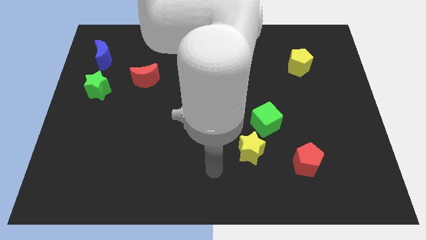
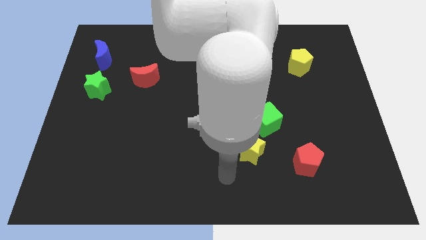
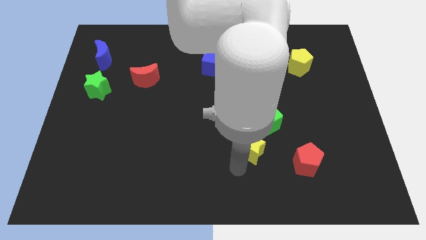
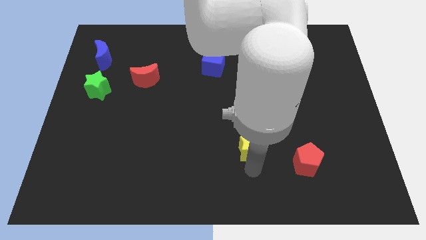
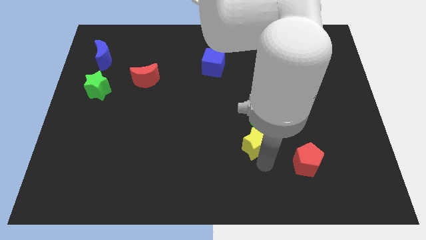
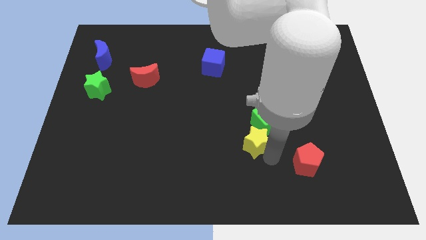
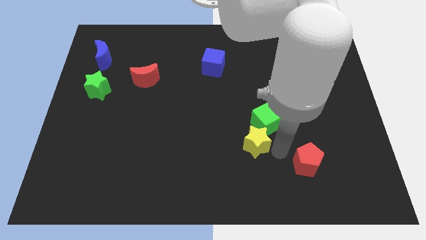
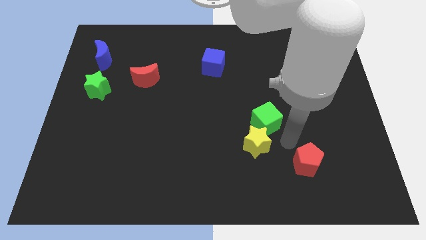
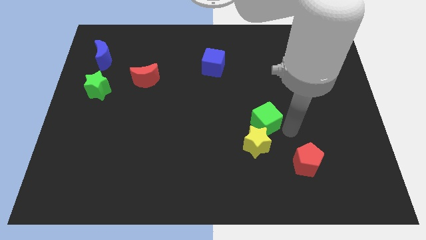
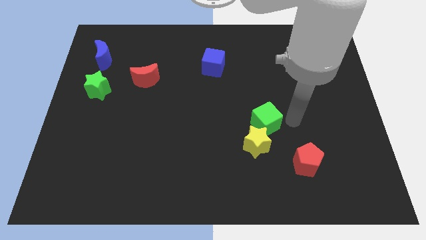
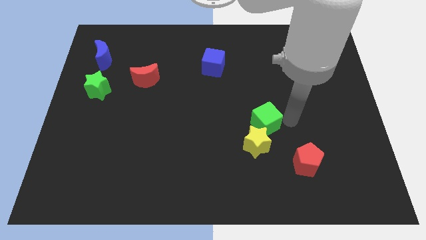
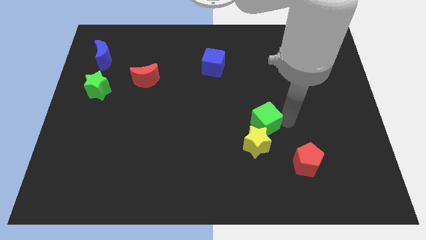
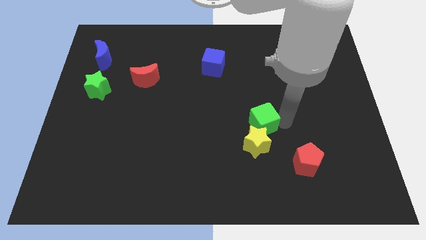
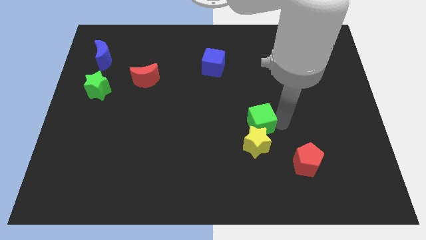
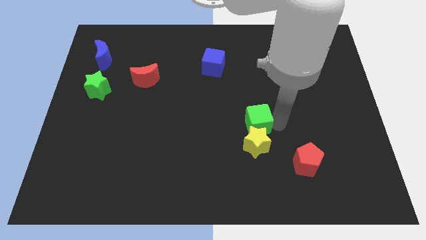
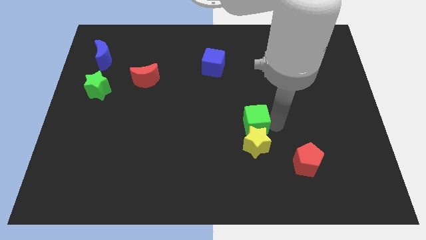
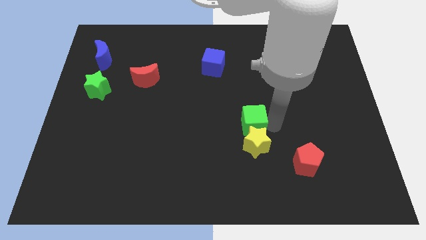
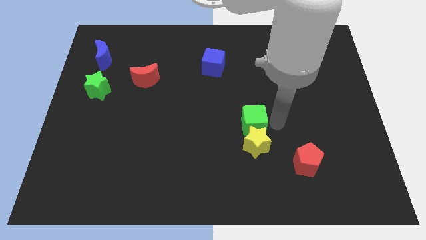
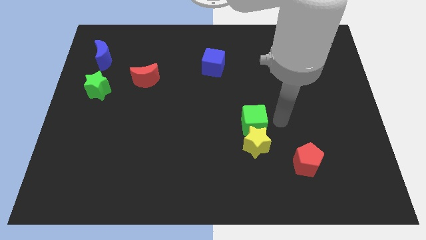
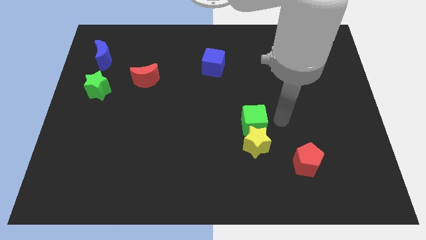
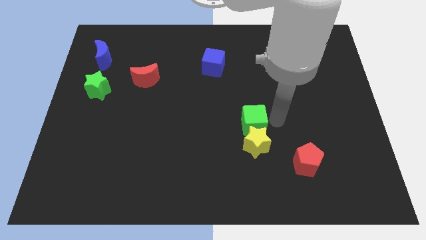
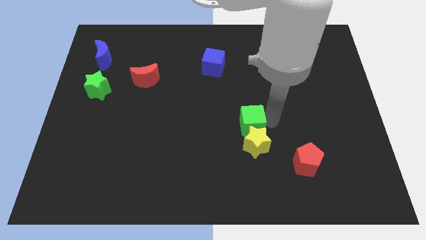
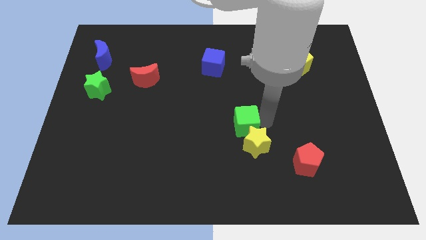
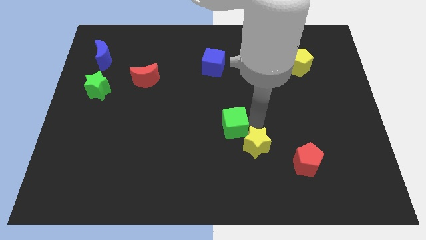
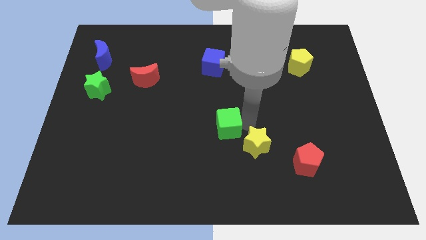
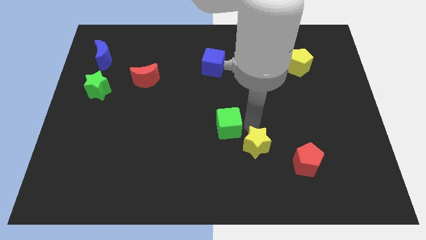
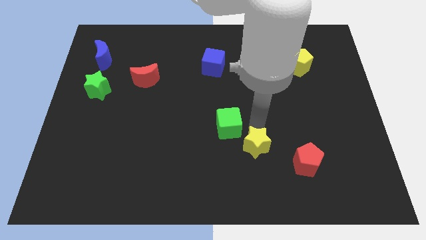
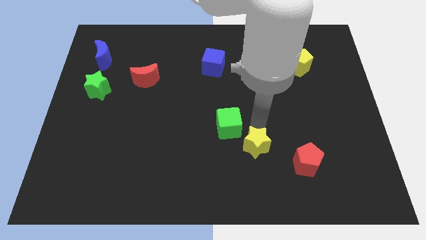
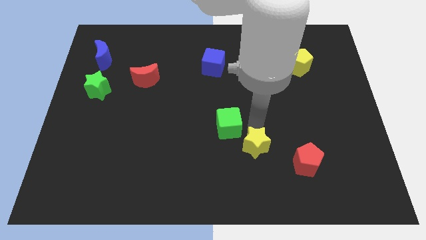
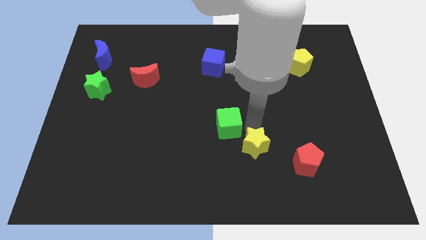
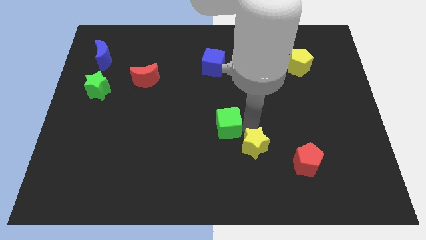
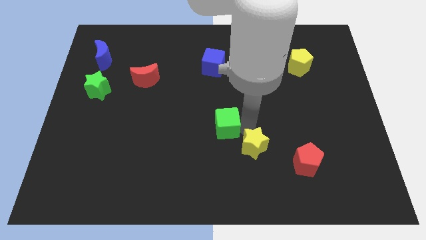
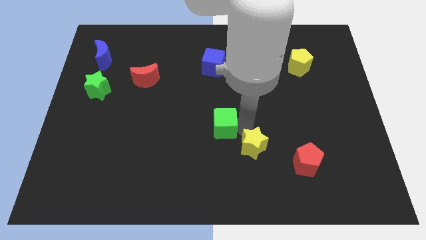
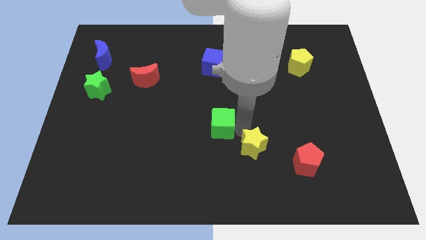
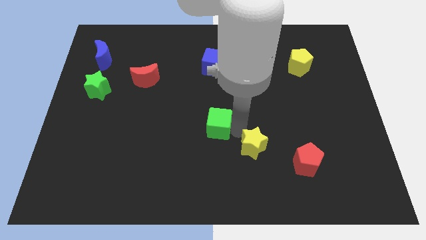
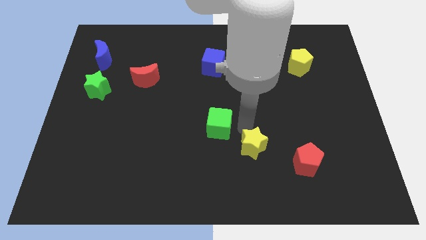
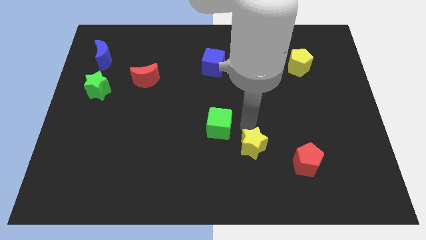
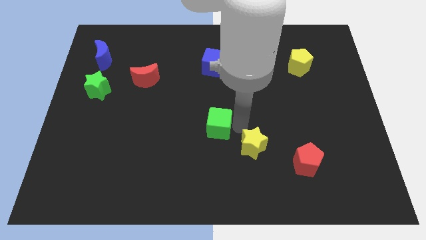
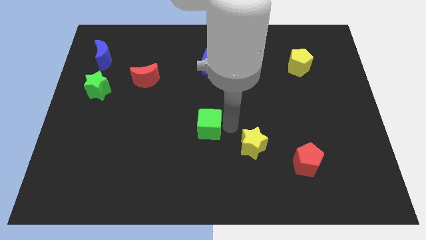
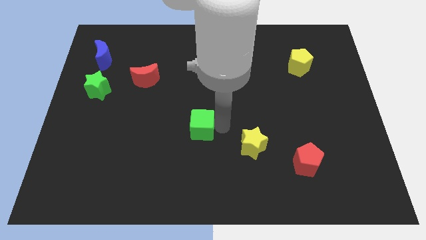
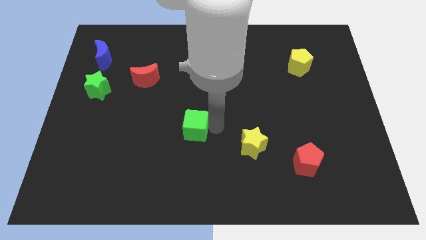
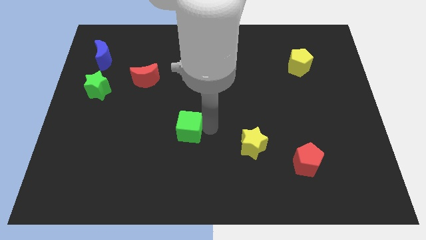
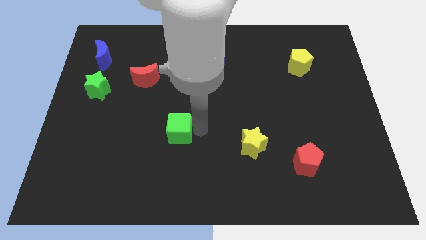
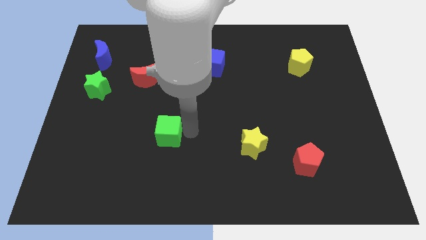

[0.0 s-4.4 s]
slide the green cube left

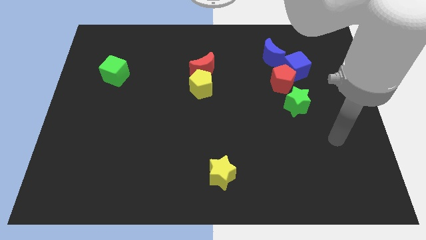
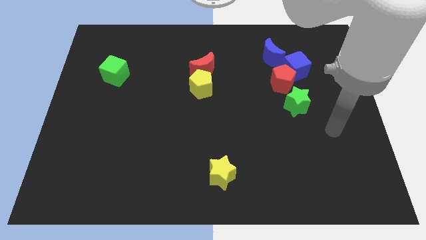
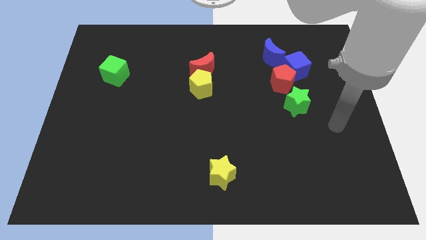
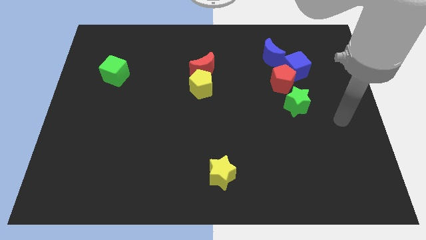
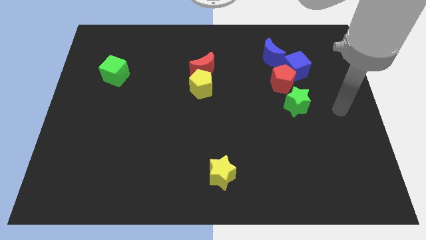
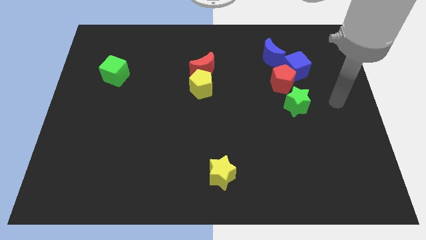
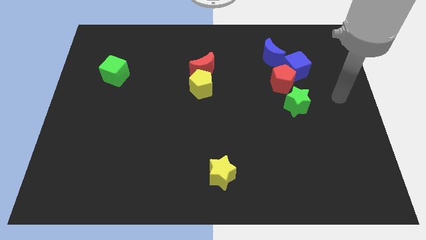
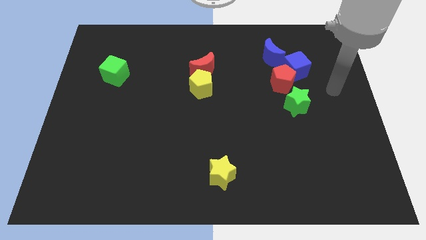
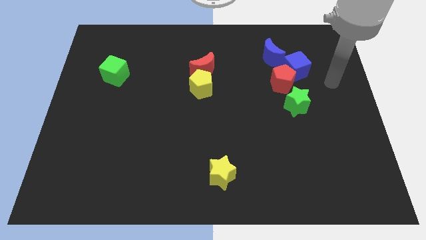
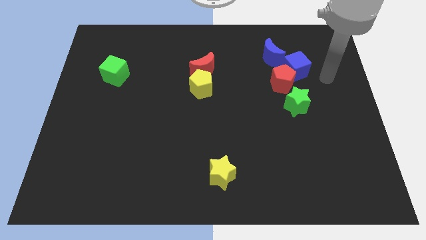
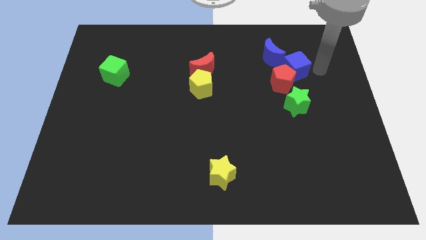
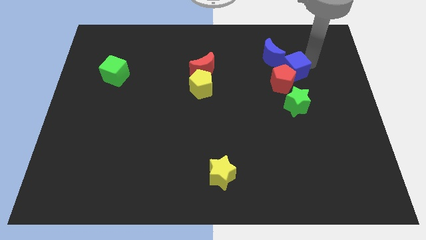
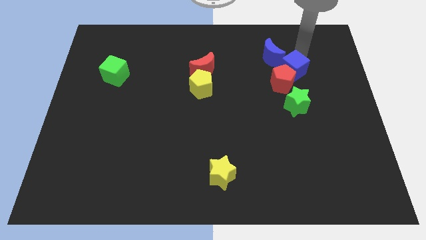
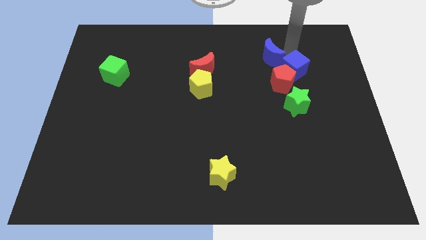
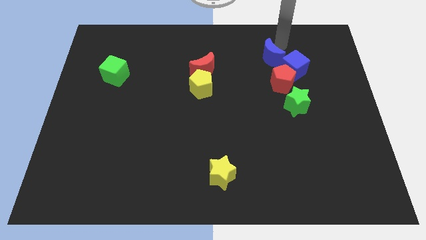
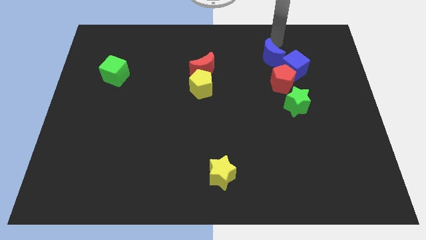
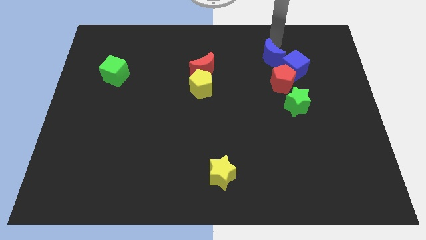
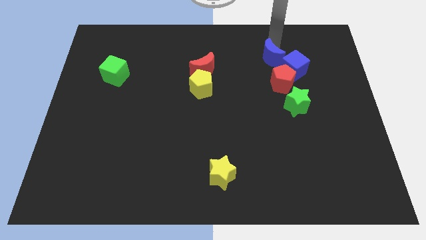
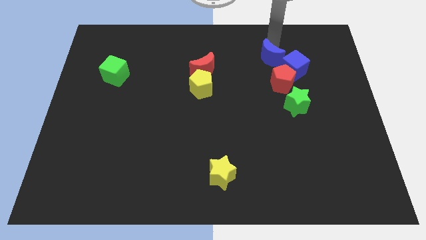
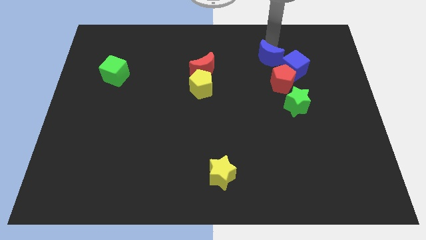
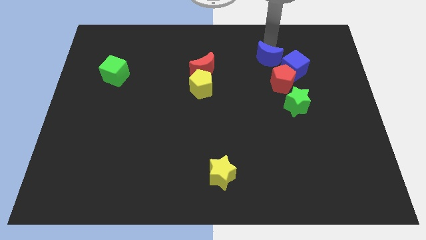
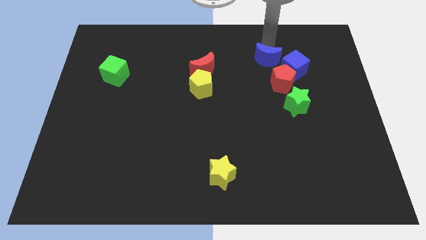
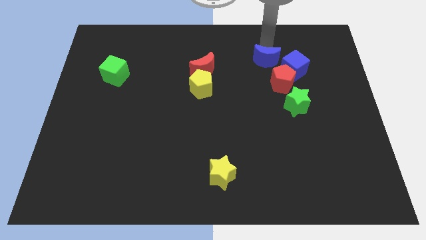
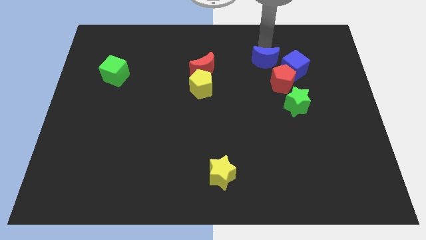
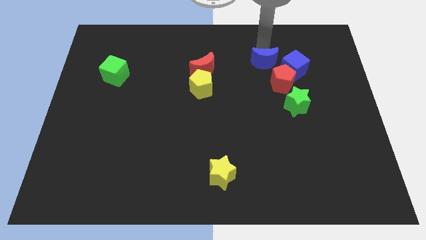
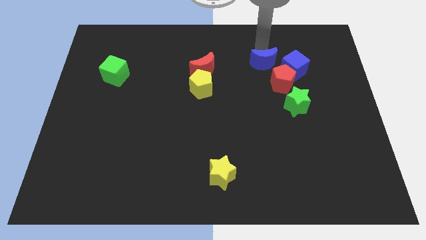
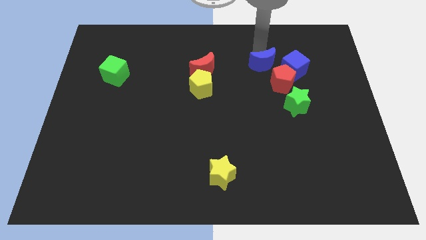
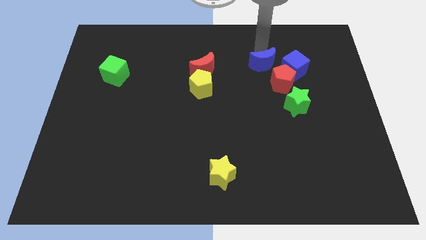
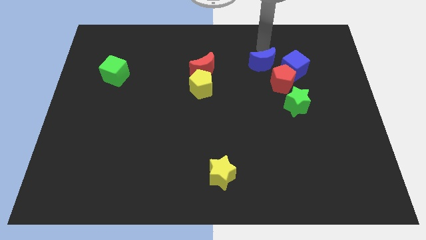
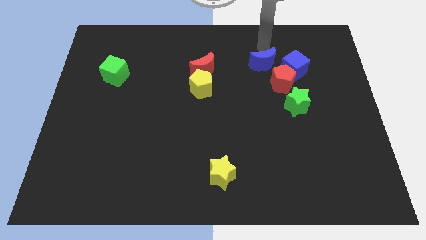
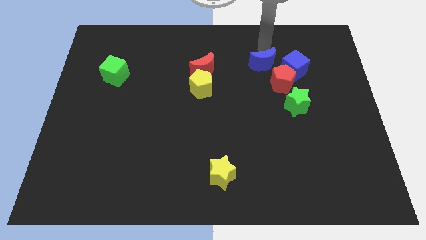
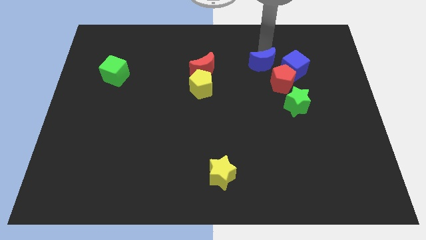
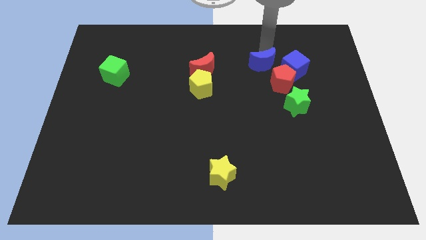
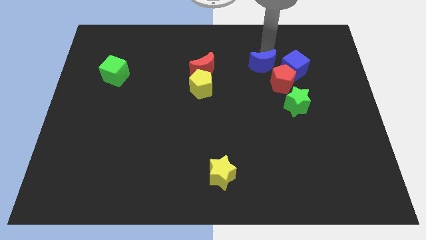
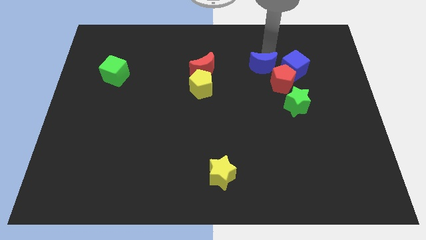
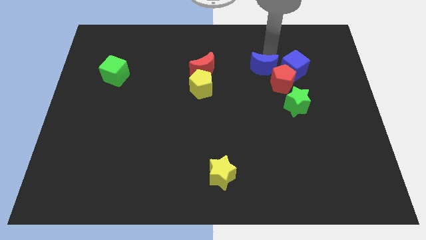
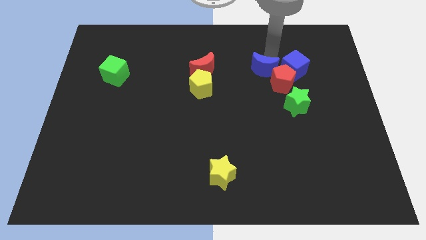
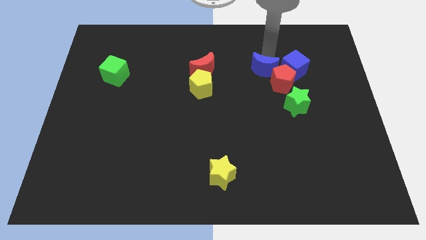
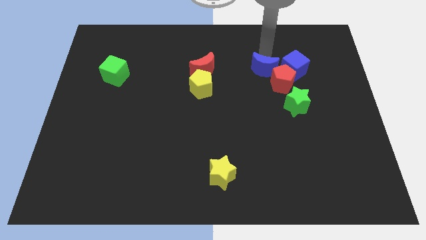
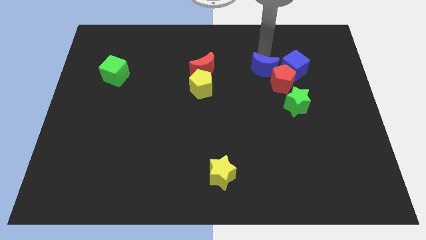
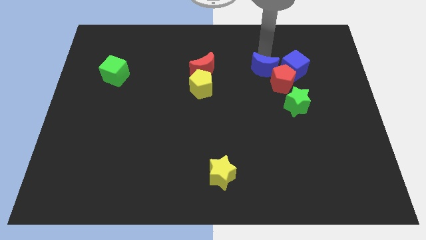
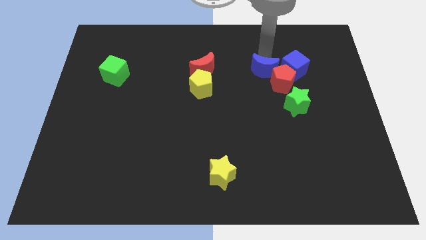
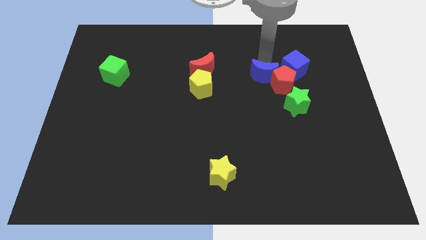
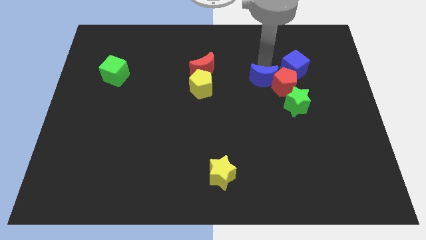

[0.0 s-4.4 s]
slightly move the blue moon downwards
